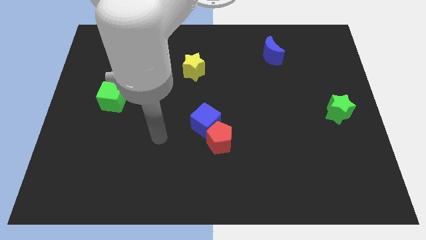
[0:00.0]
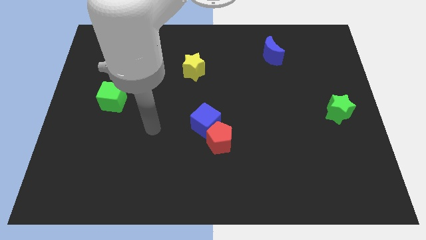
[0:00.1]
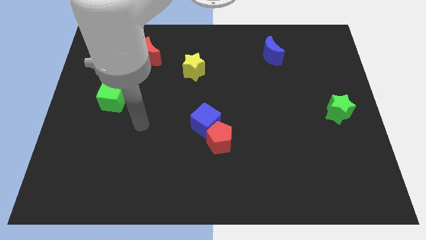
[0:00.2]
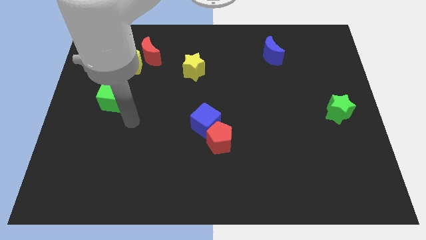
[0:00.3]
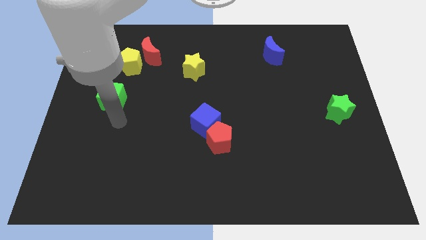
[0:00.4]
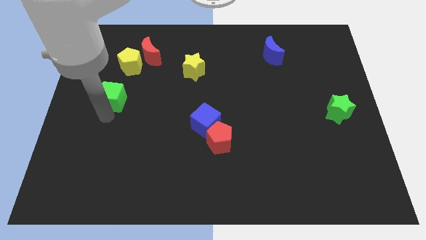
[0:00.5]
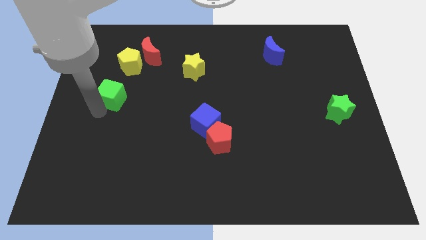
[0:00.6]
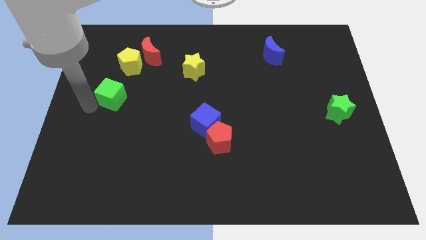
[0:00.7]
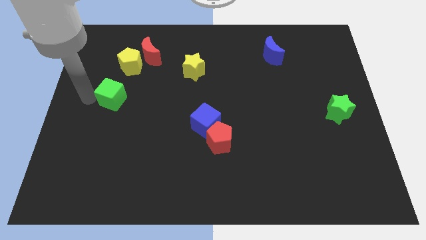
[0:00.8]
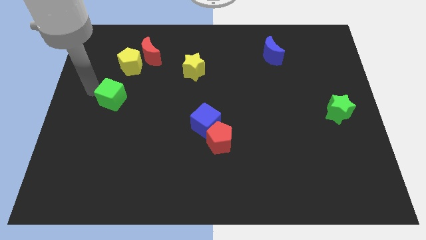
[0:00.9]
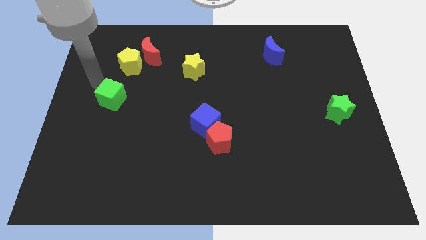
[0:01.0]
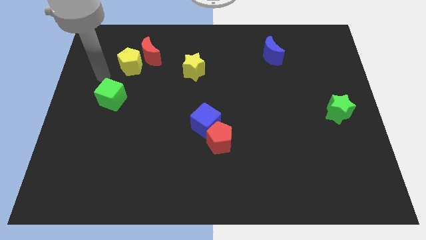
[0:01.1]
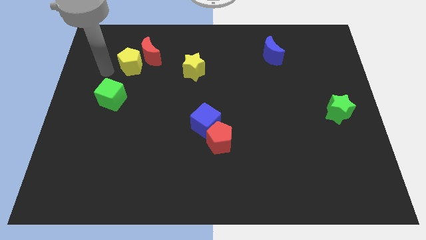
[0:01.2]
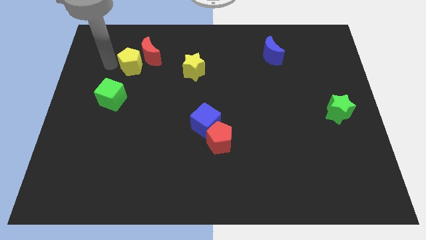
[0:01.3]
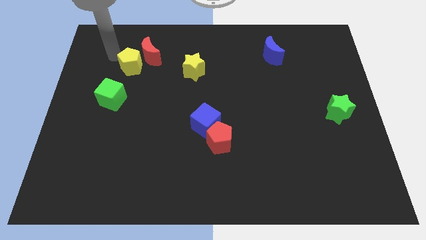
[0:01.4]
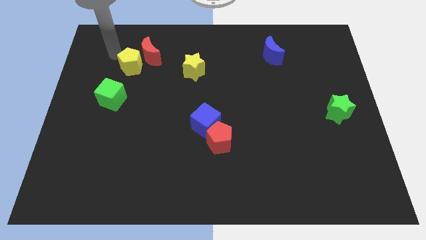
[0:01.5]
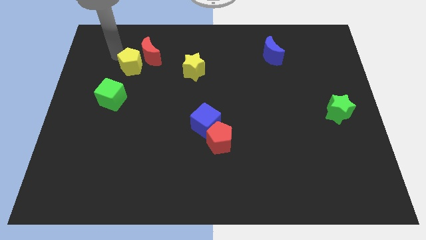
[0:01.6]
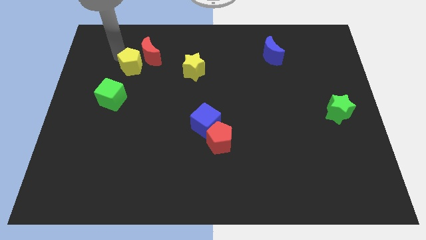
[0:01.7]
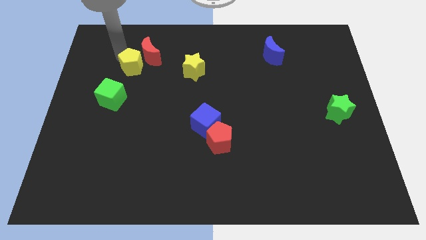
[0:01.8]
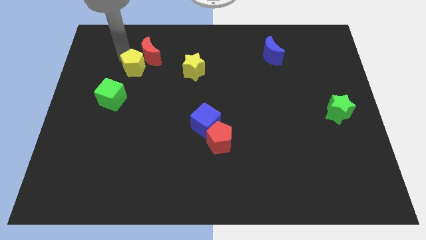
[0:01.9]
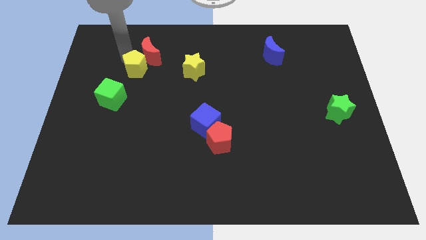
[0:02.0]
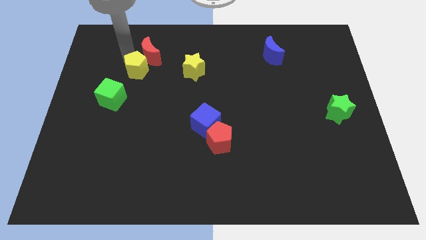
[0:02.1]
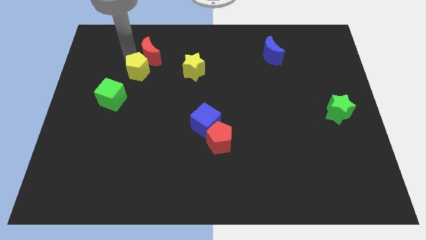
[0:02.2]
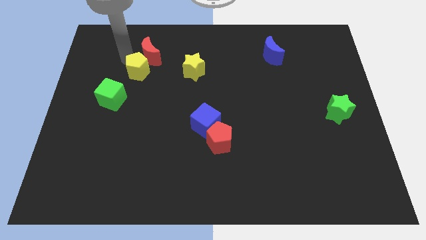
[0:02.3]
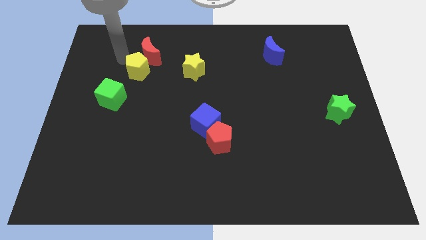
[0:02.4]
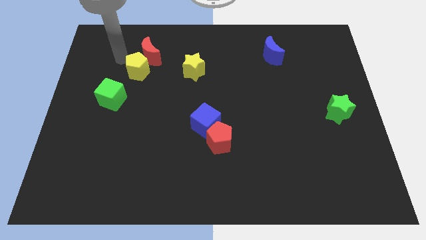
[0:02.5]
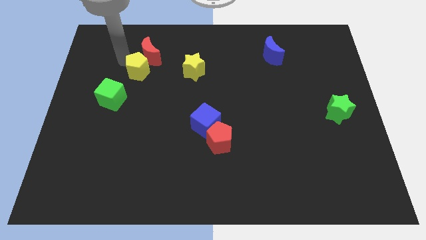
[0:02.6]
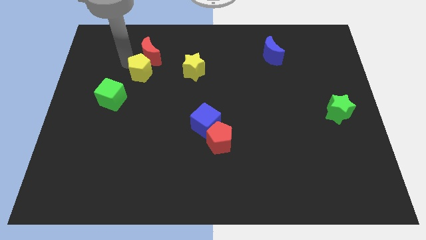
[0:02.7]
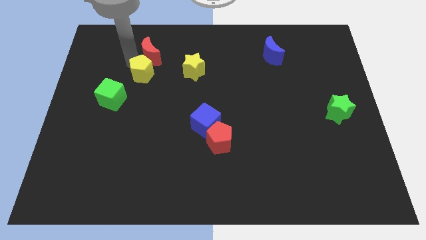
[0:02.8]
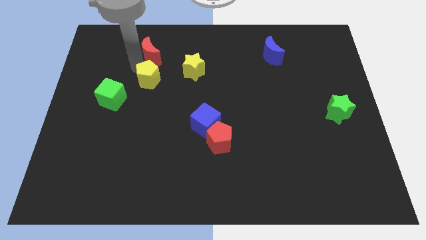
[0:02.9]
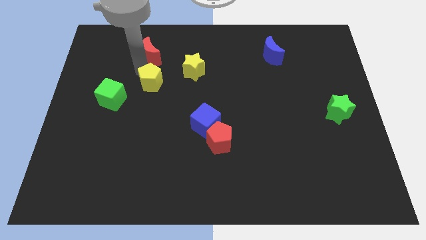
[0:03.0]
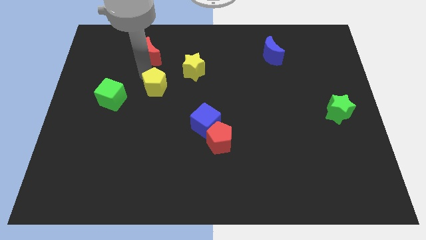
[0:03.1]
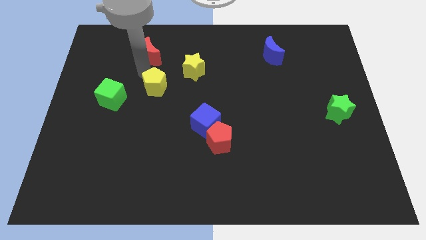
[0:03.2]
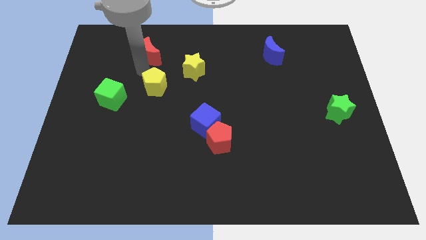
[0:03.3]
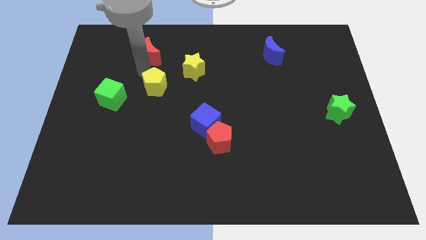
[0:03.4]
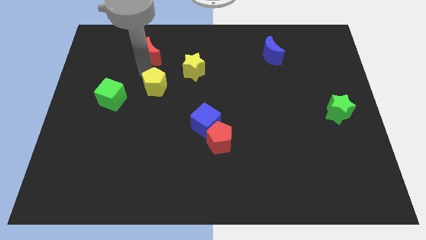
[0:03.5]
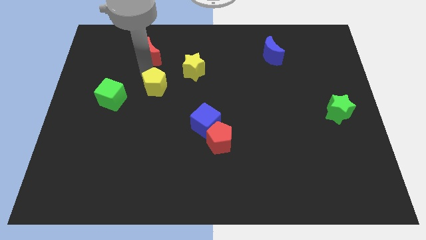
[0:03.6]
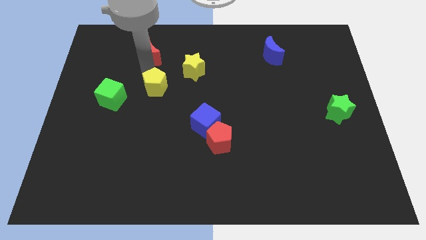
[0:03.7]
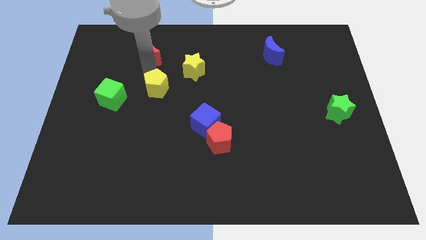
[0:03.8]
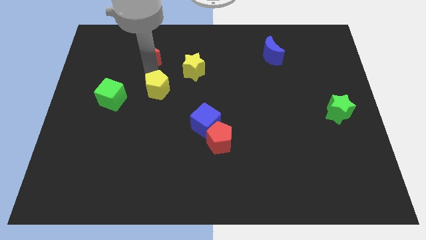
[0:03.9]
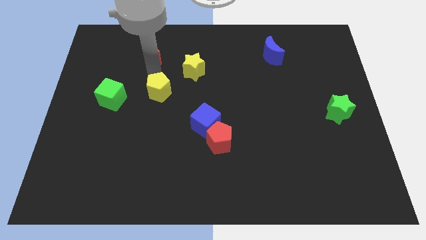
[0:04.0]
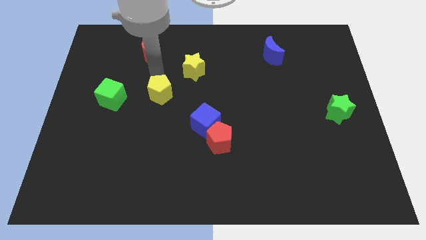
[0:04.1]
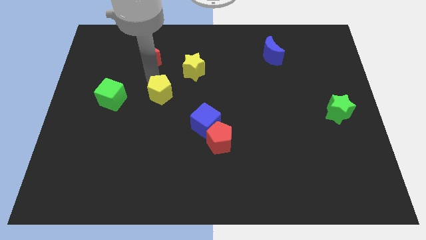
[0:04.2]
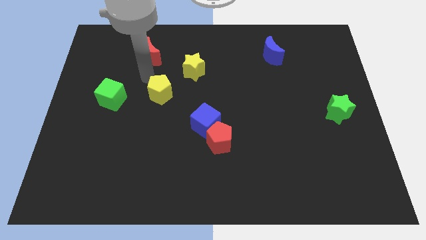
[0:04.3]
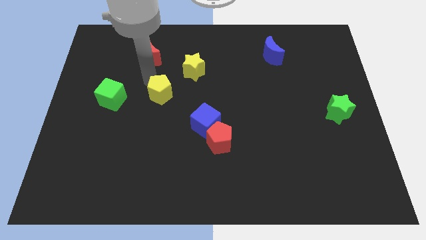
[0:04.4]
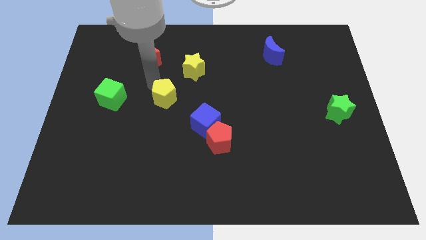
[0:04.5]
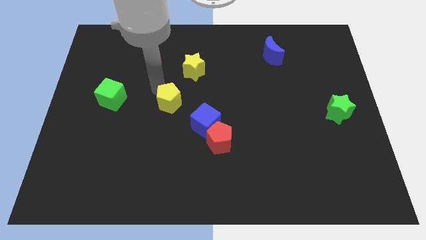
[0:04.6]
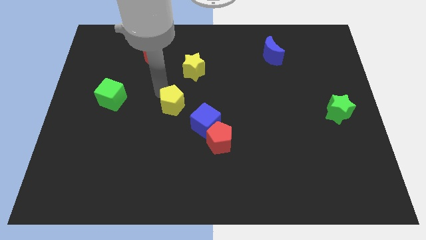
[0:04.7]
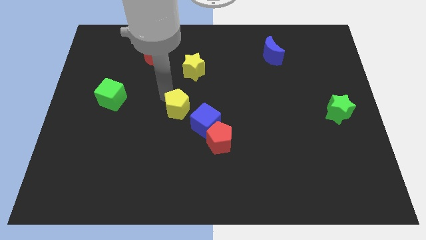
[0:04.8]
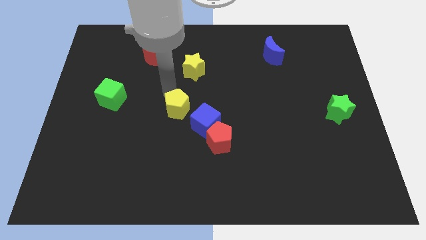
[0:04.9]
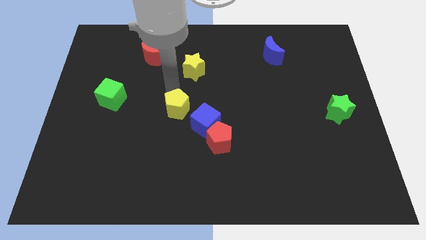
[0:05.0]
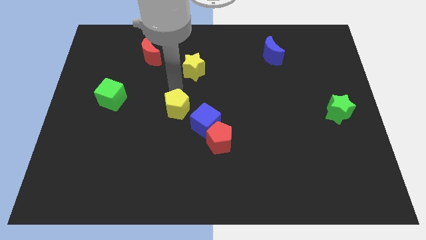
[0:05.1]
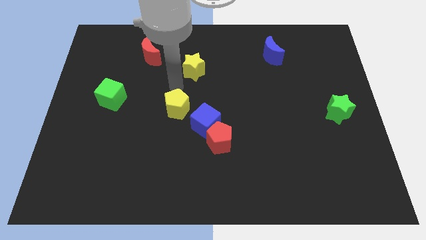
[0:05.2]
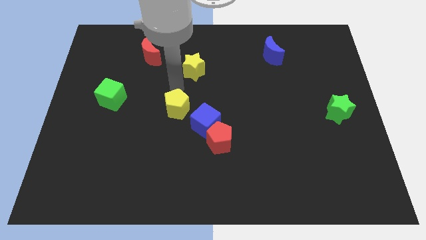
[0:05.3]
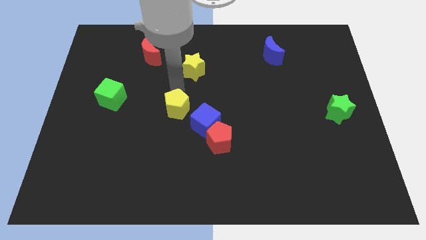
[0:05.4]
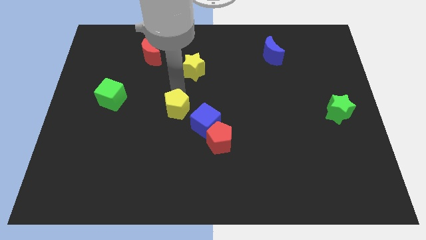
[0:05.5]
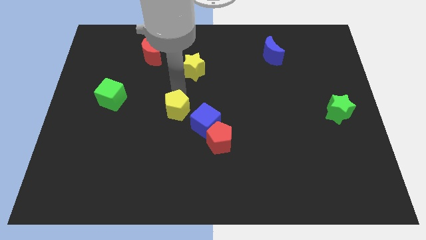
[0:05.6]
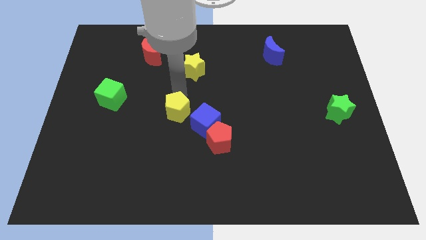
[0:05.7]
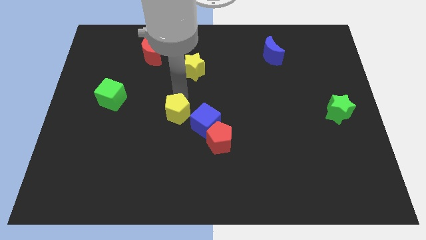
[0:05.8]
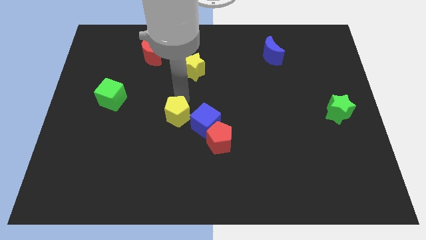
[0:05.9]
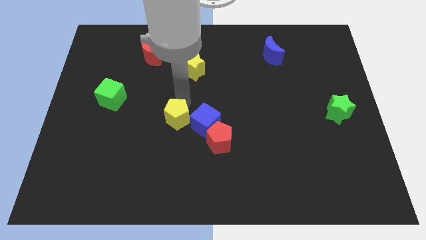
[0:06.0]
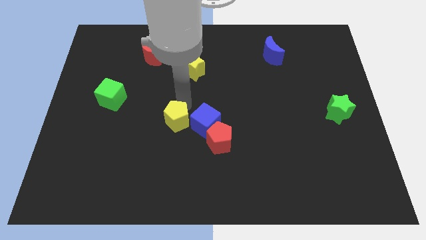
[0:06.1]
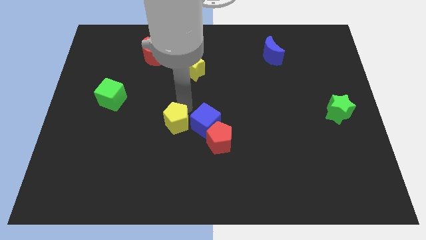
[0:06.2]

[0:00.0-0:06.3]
move the yellow pentagon diagonally down and to the left of the blue cube

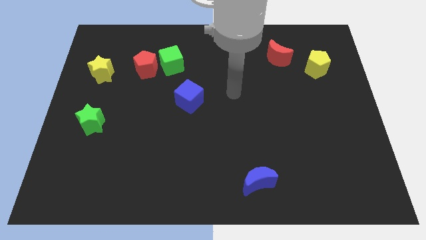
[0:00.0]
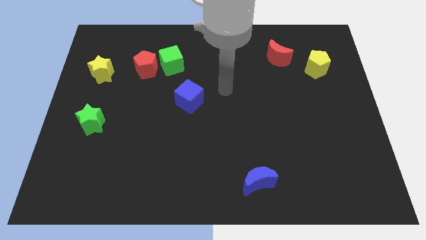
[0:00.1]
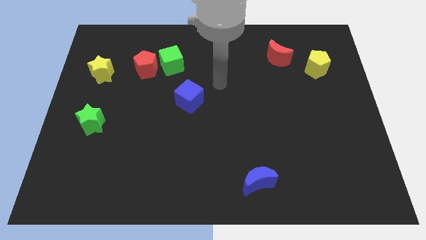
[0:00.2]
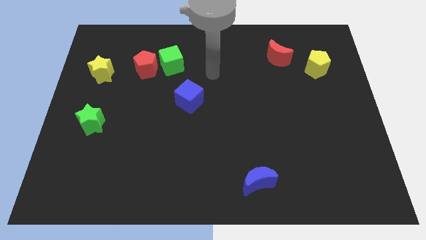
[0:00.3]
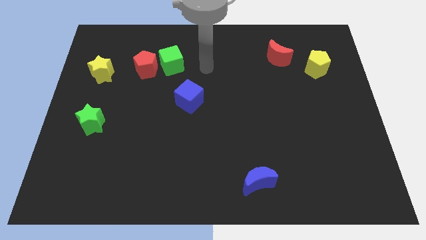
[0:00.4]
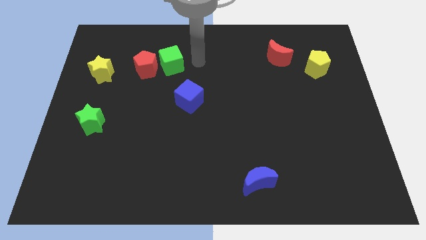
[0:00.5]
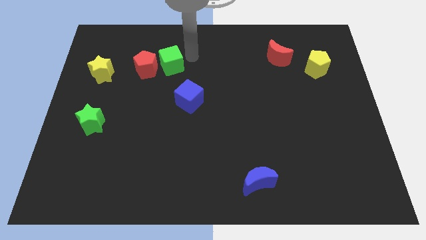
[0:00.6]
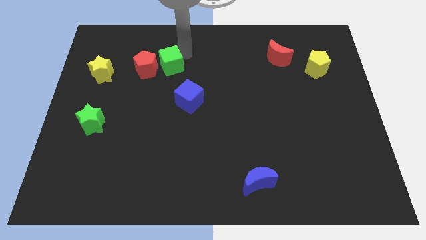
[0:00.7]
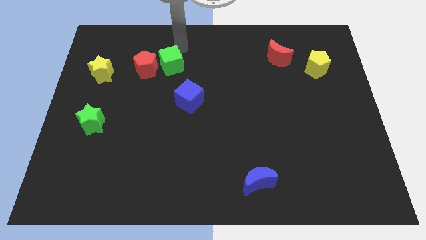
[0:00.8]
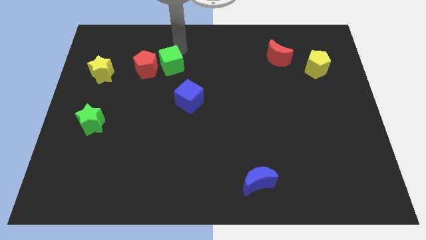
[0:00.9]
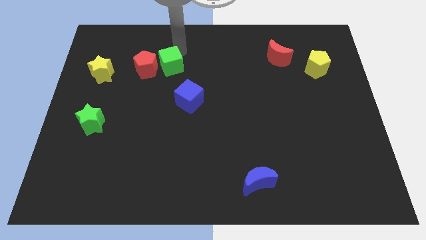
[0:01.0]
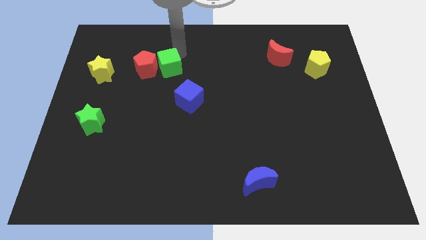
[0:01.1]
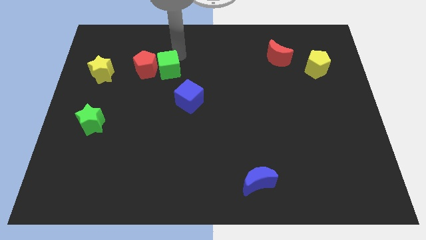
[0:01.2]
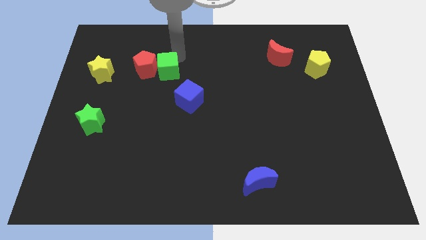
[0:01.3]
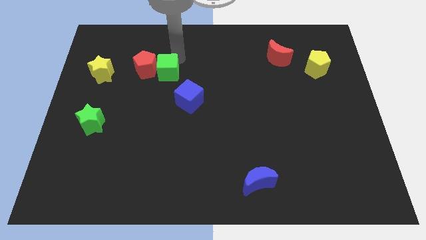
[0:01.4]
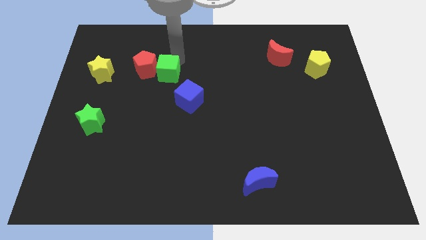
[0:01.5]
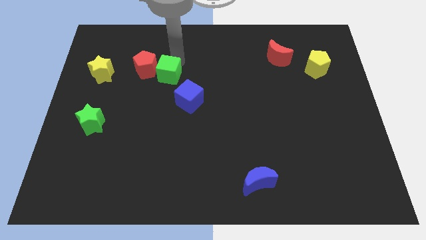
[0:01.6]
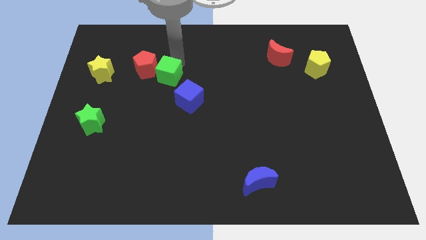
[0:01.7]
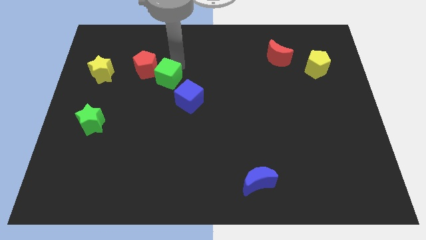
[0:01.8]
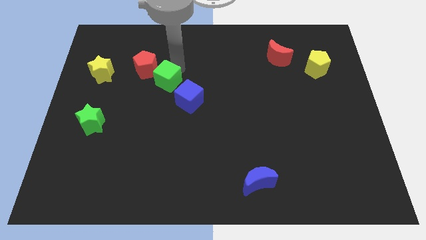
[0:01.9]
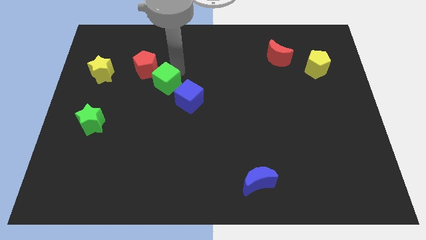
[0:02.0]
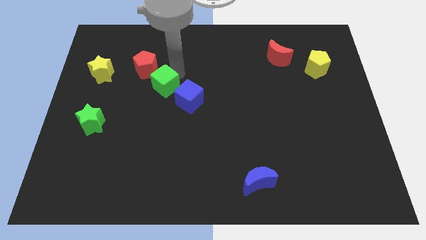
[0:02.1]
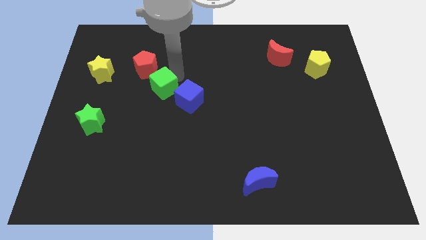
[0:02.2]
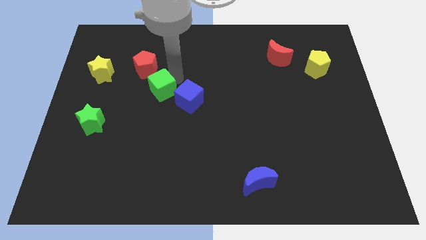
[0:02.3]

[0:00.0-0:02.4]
slide the green cube below the red pentagon
